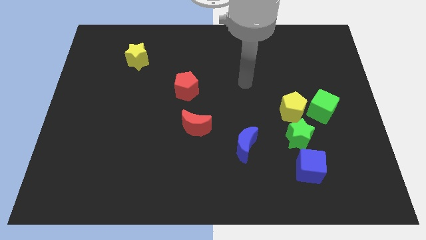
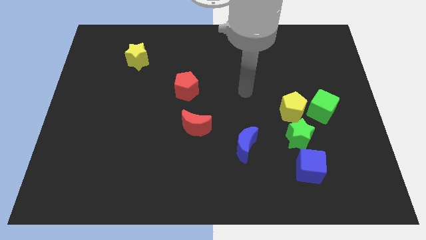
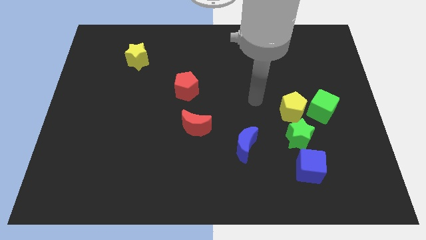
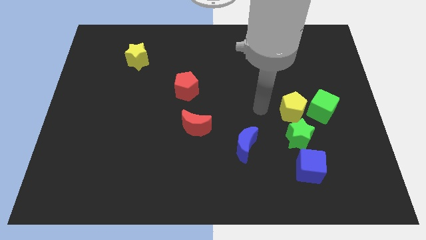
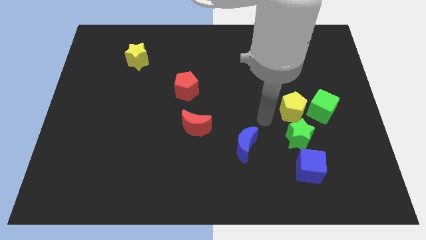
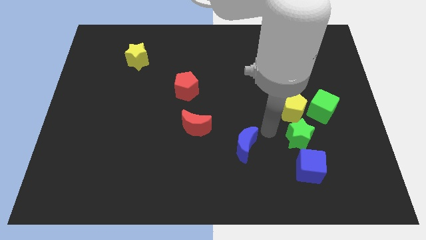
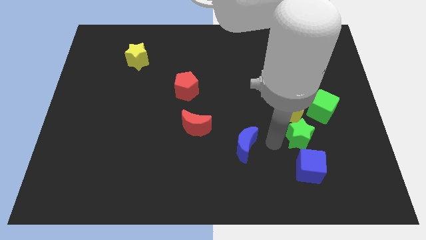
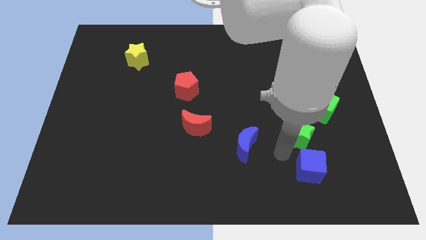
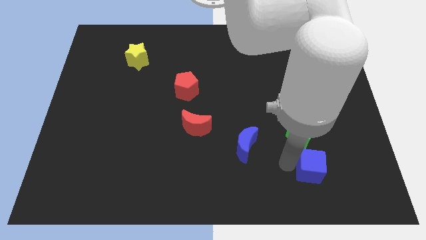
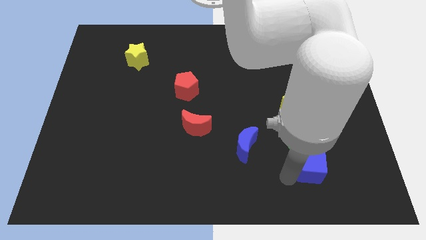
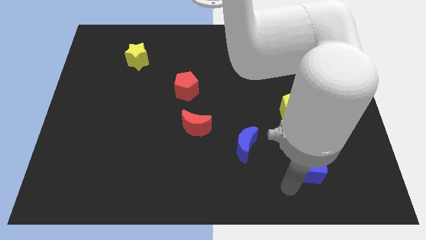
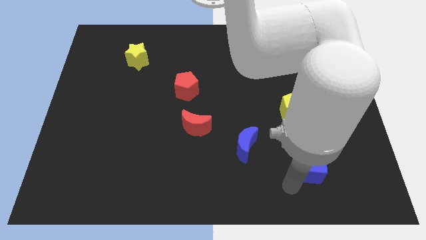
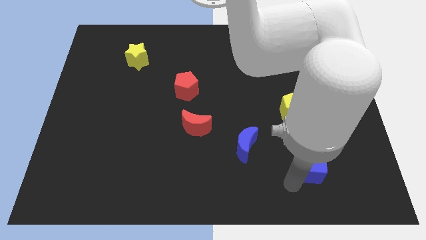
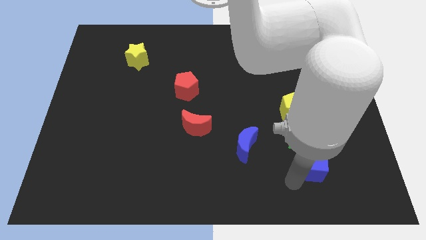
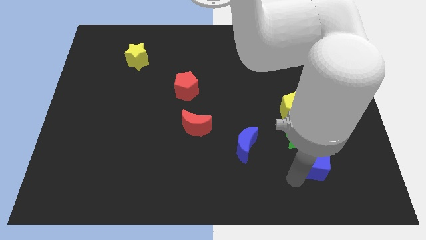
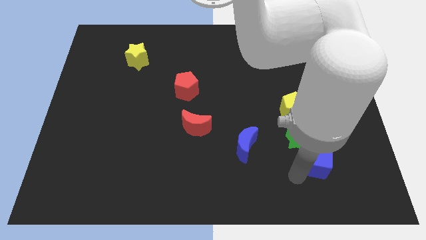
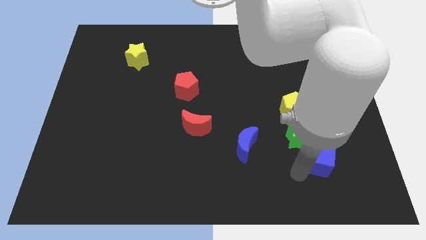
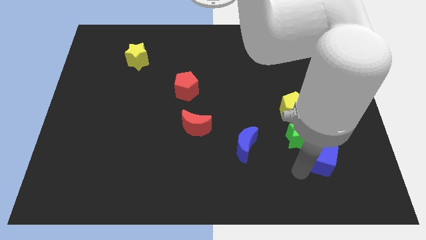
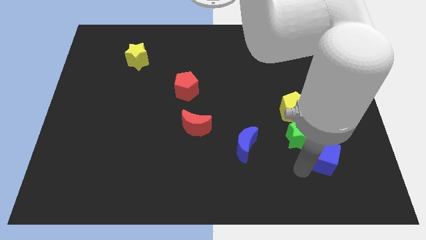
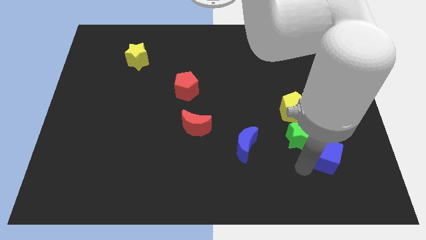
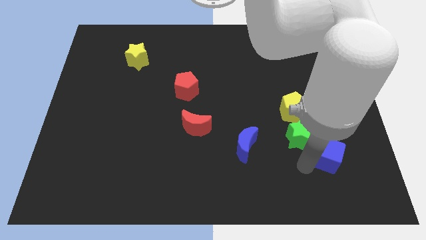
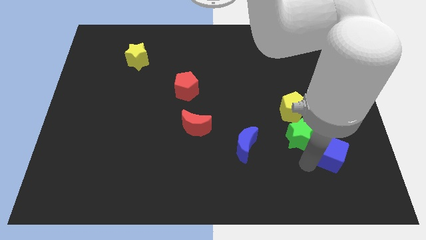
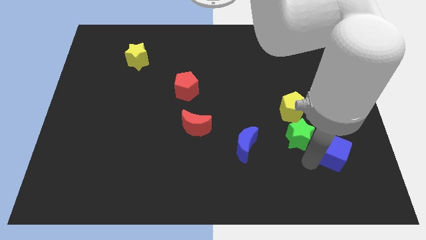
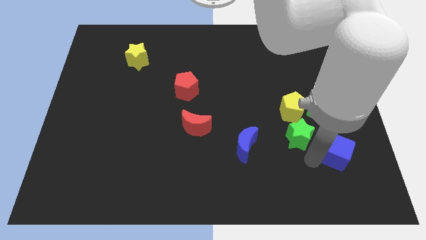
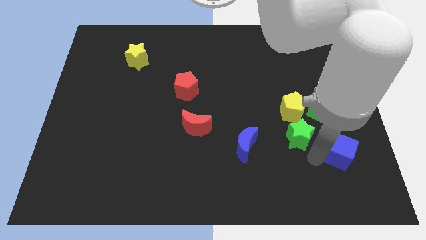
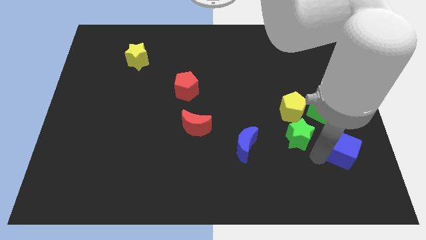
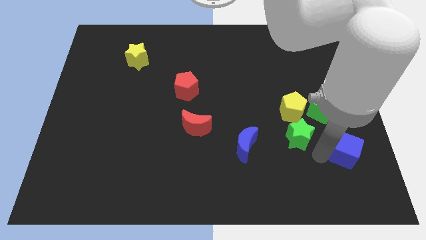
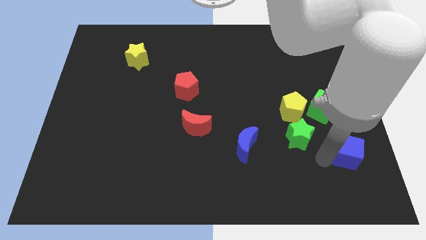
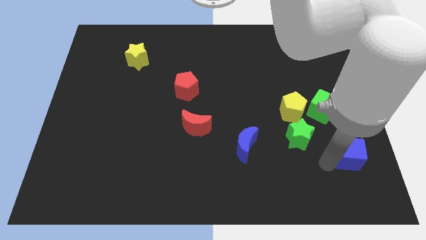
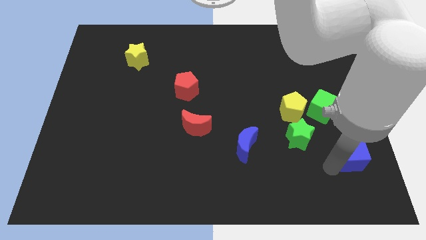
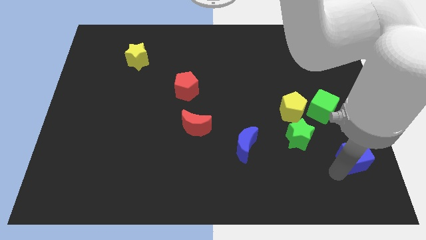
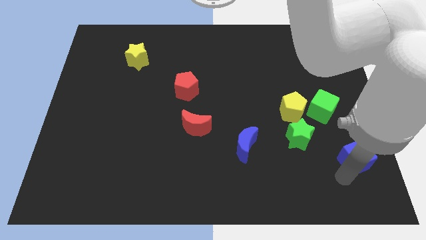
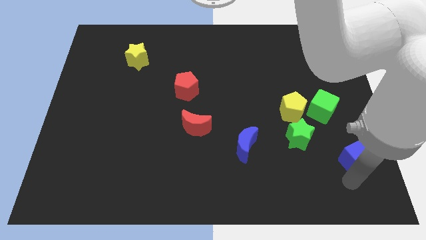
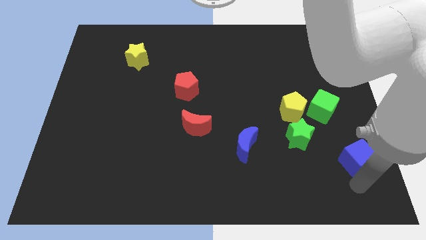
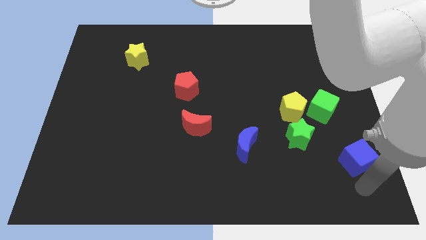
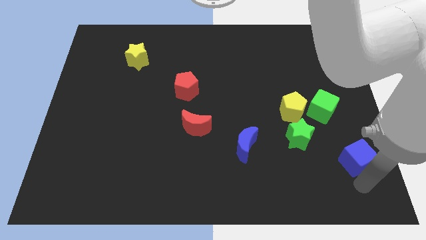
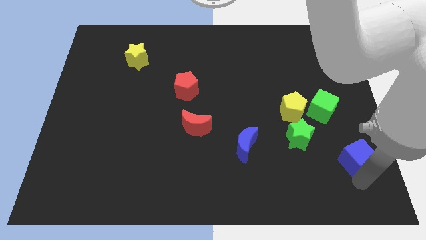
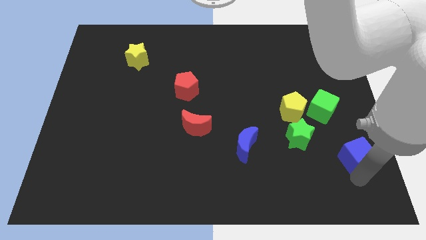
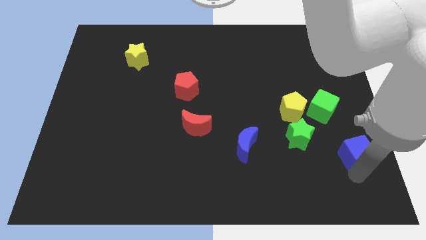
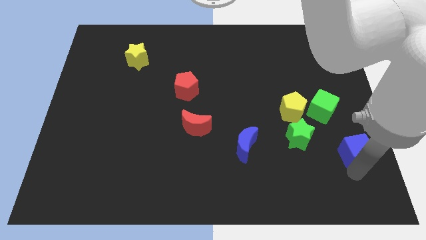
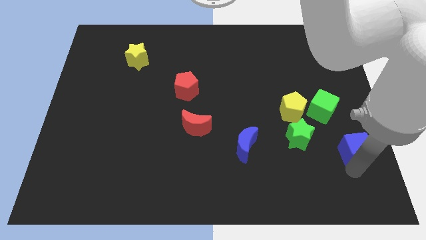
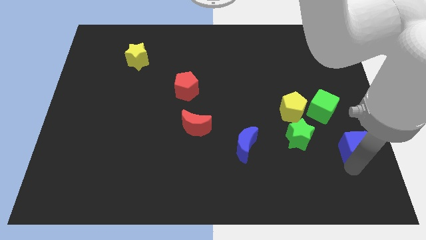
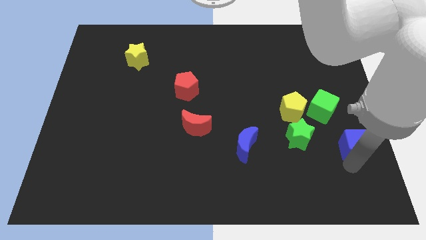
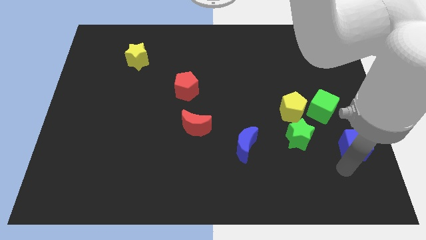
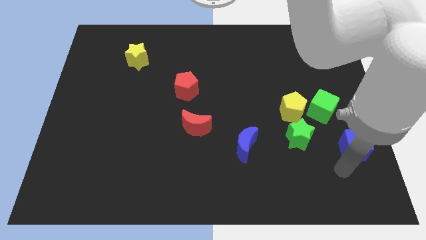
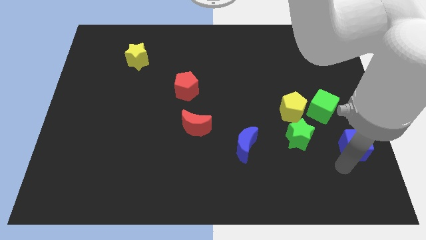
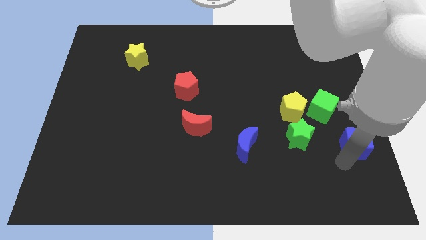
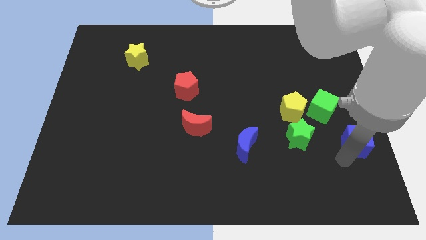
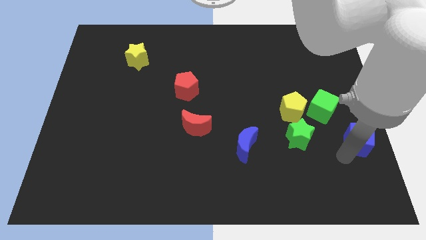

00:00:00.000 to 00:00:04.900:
push the blue cube to the center right

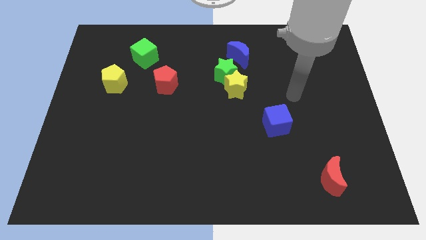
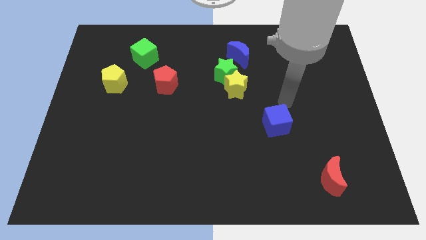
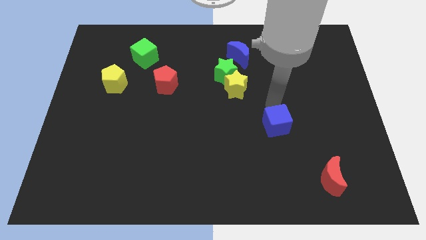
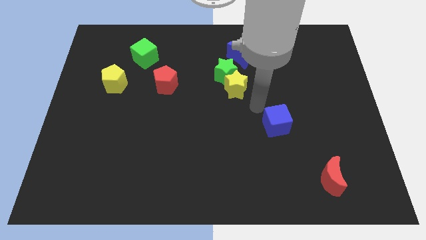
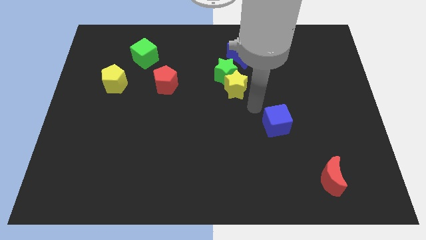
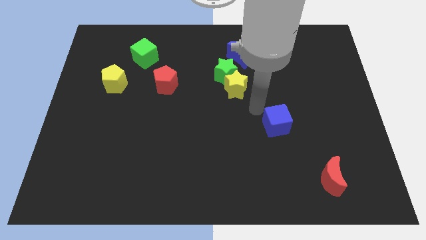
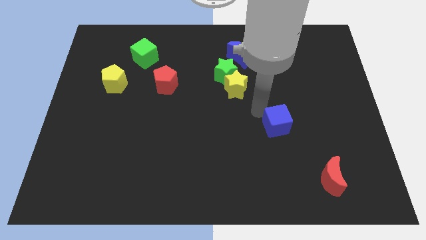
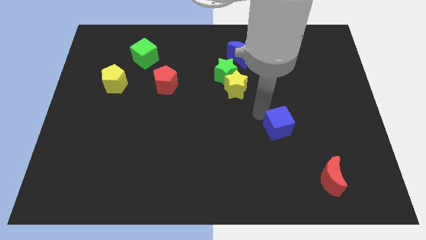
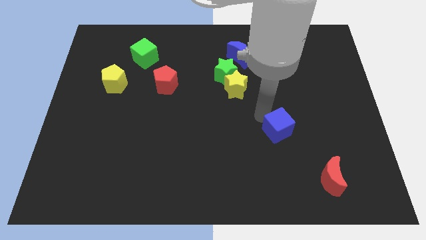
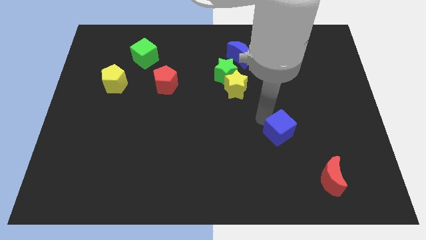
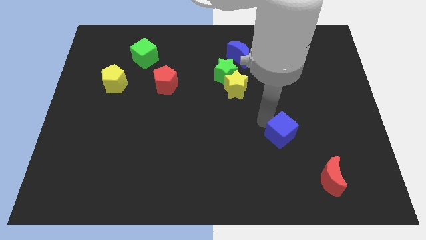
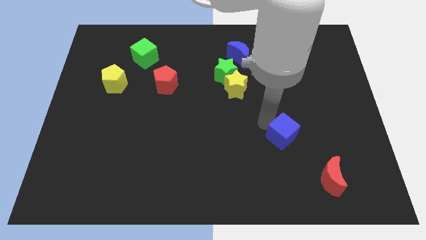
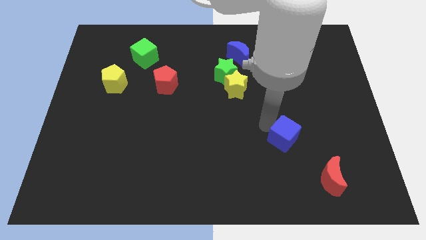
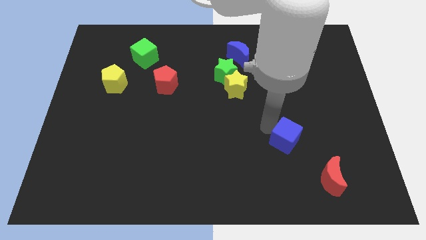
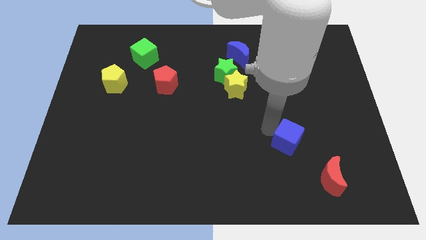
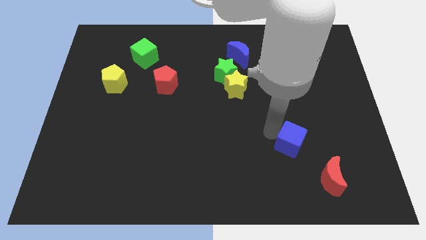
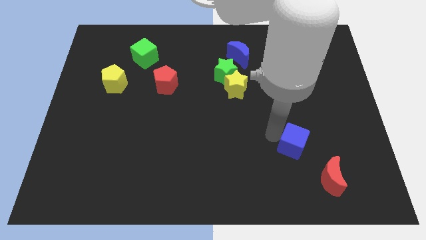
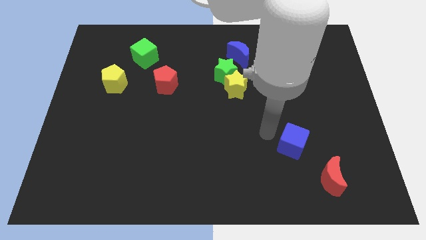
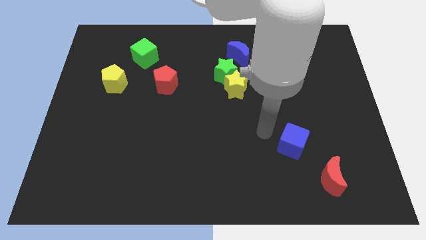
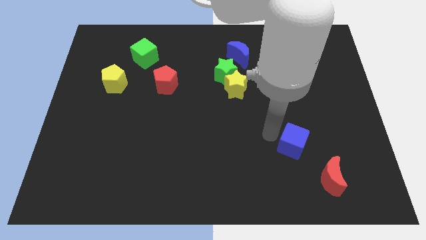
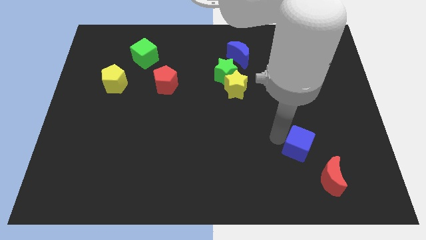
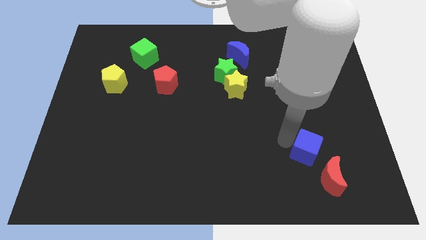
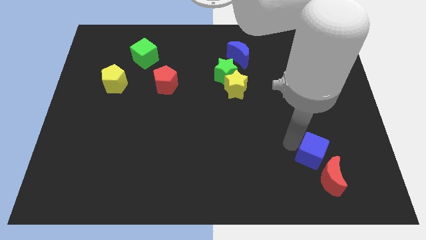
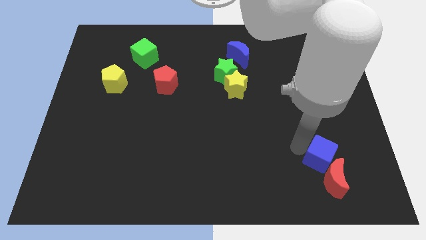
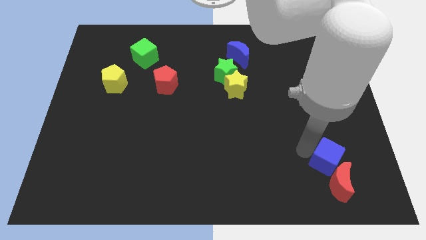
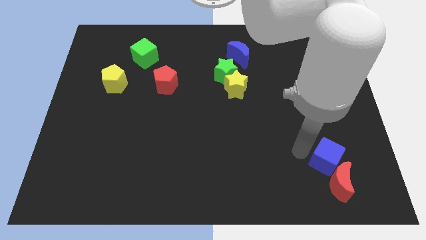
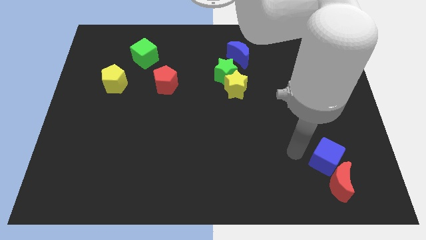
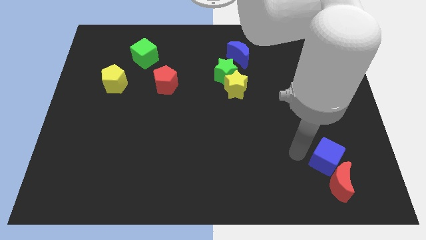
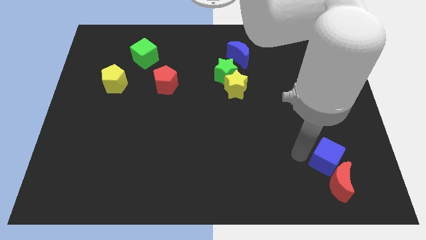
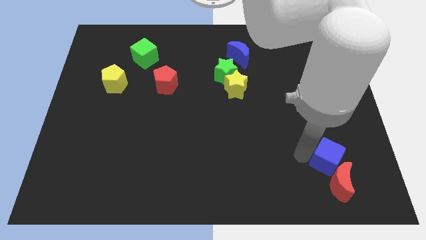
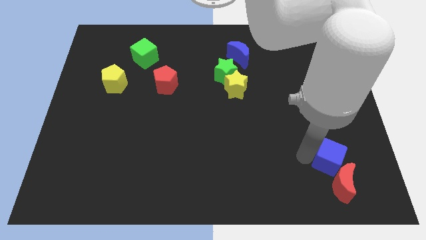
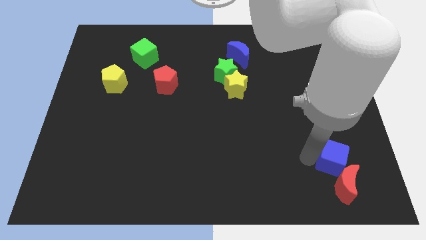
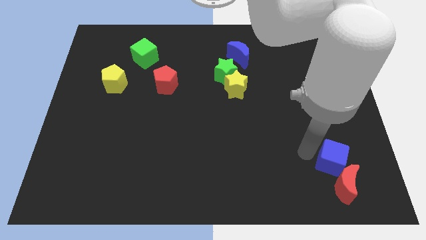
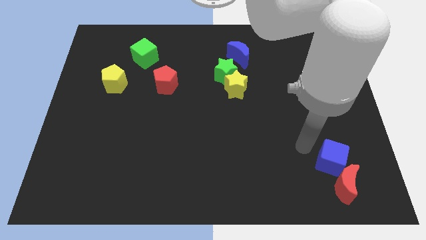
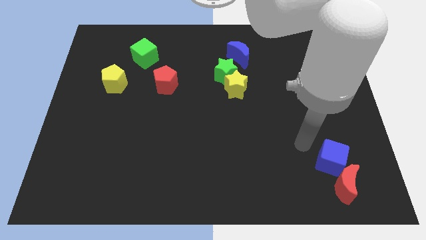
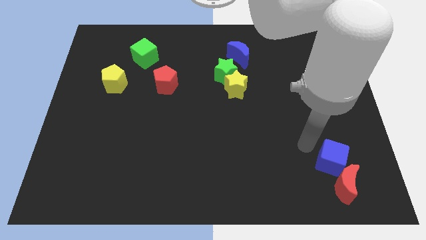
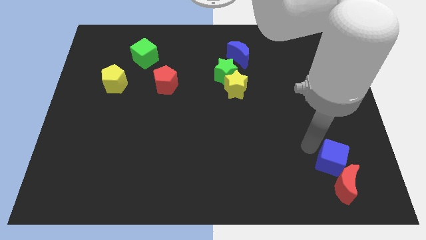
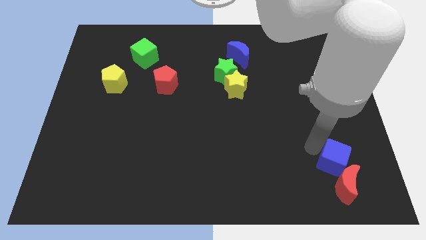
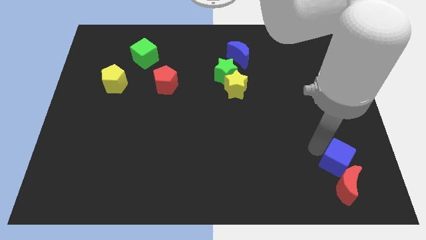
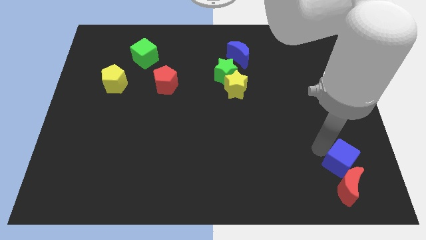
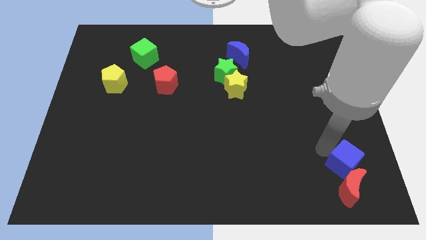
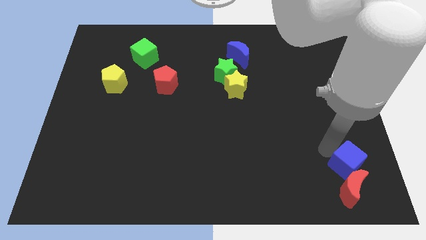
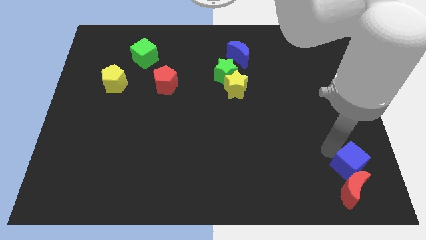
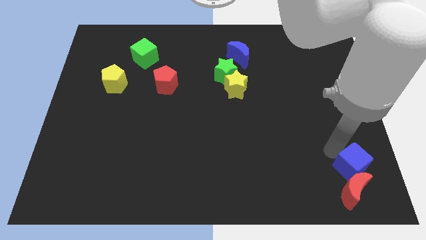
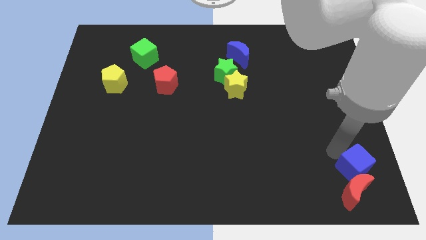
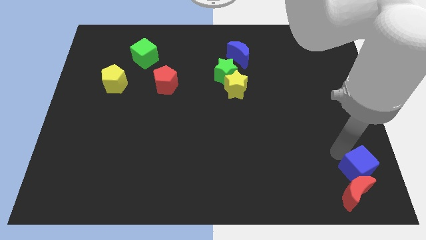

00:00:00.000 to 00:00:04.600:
move the blue cube to the bottom right
